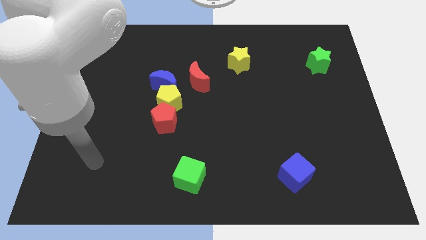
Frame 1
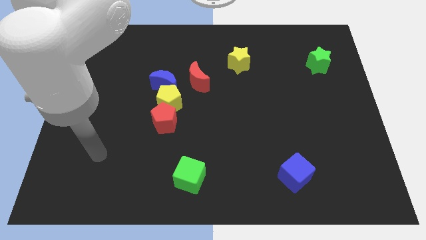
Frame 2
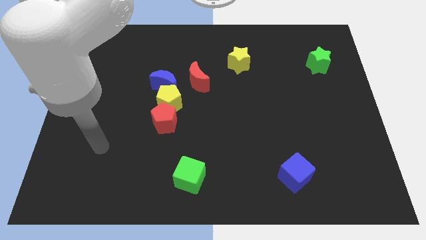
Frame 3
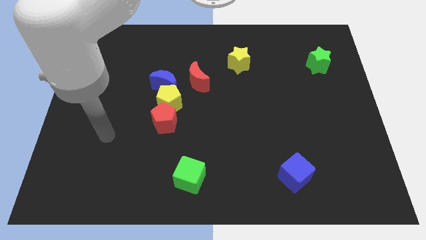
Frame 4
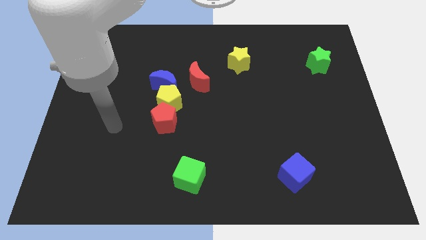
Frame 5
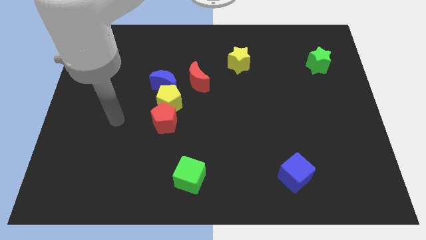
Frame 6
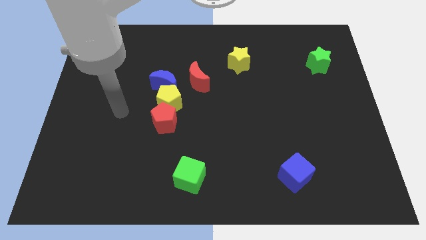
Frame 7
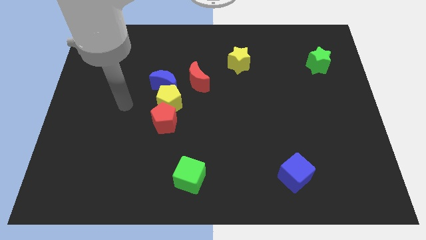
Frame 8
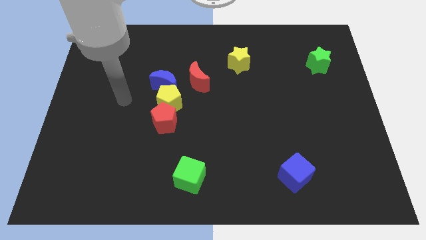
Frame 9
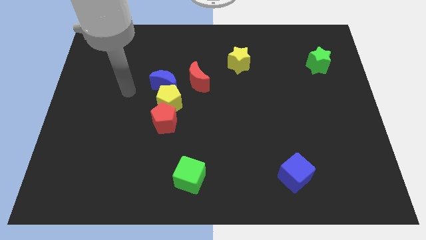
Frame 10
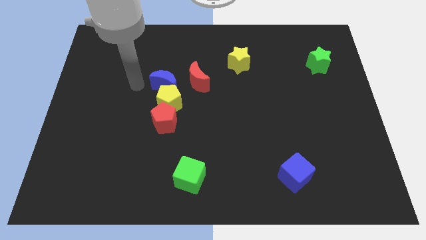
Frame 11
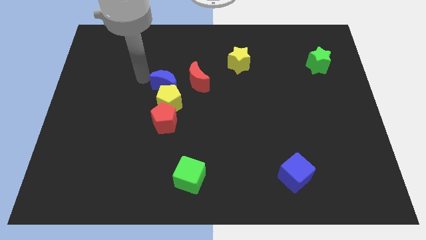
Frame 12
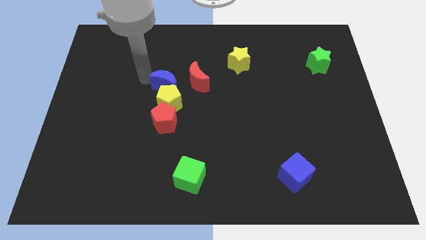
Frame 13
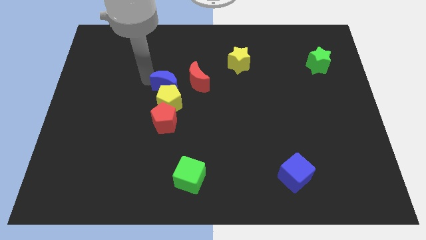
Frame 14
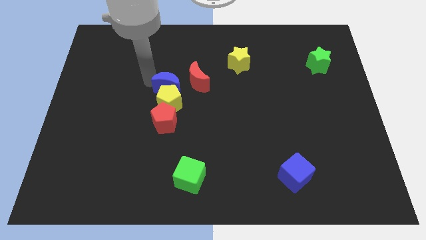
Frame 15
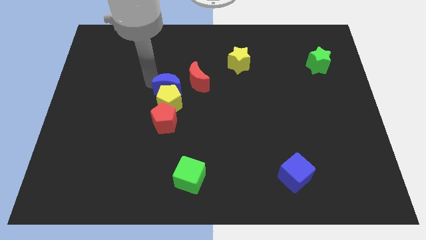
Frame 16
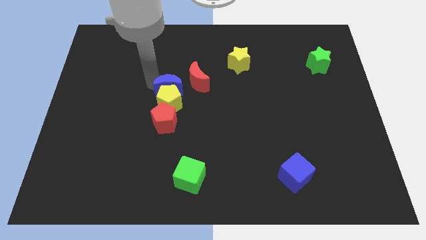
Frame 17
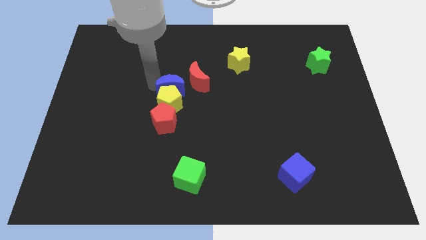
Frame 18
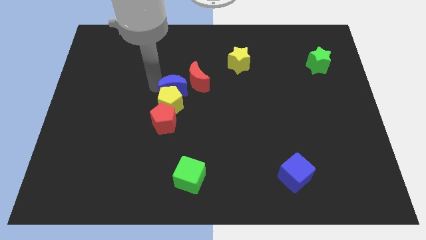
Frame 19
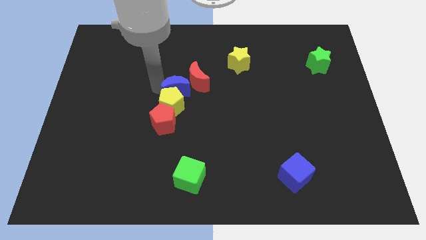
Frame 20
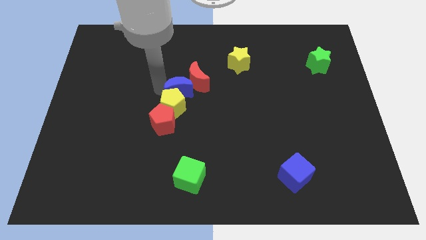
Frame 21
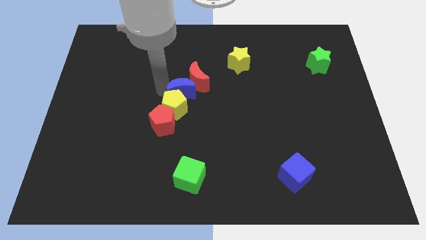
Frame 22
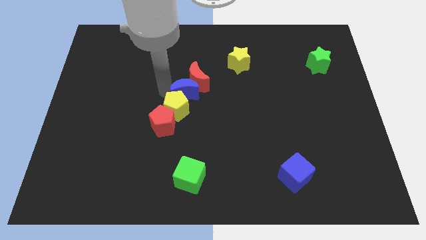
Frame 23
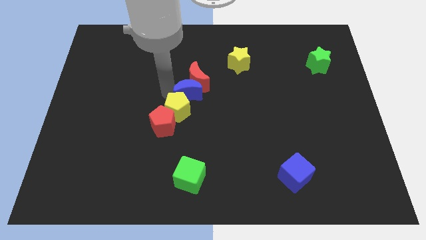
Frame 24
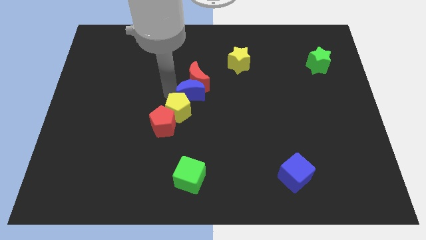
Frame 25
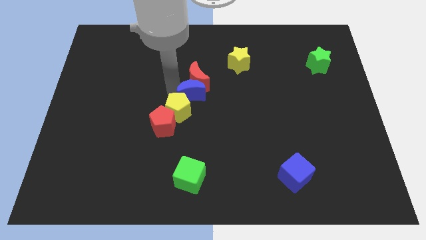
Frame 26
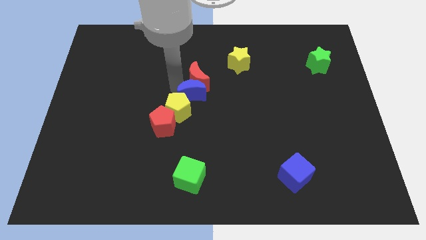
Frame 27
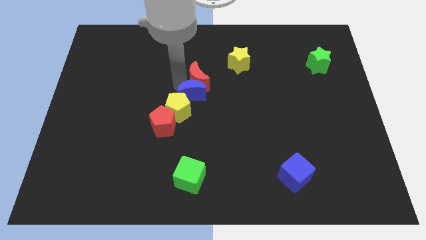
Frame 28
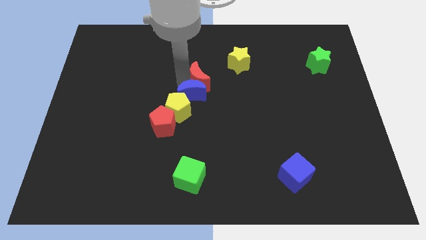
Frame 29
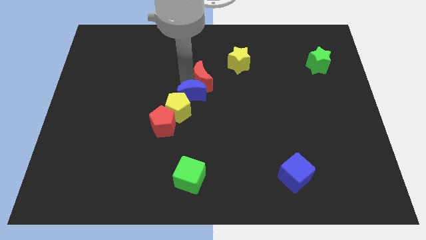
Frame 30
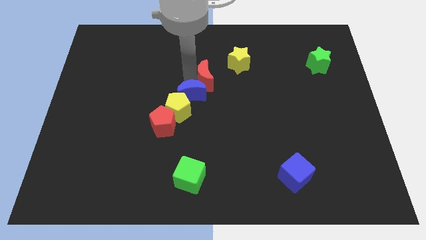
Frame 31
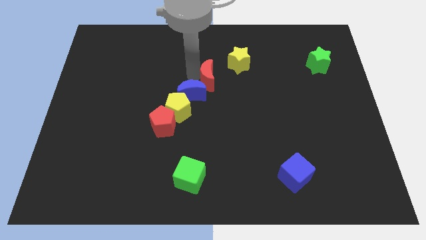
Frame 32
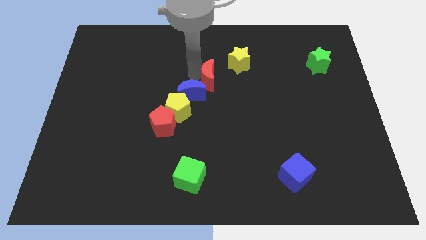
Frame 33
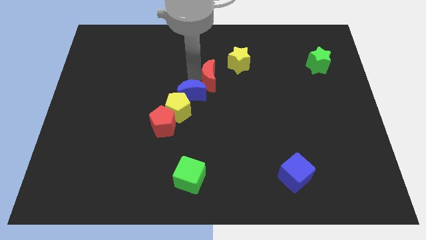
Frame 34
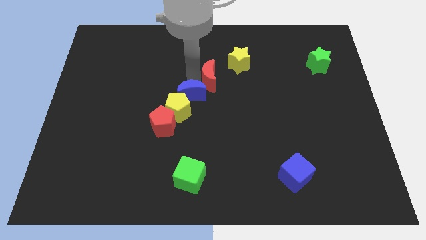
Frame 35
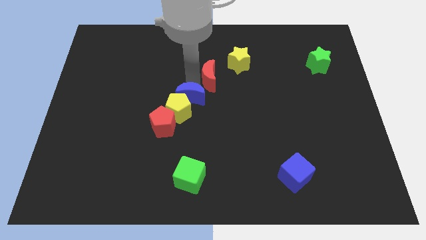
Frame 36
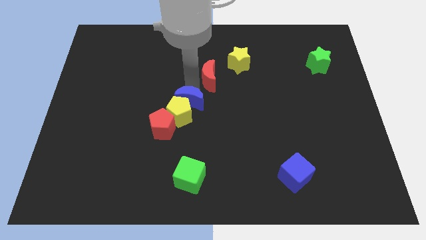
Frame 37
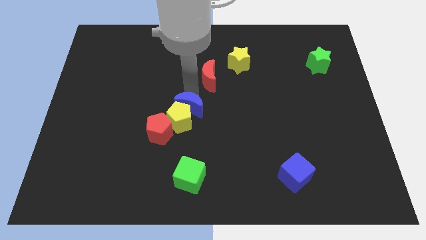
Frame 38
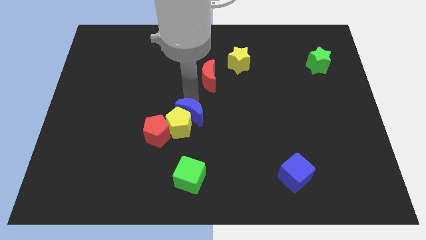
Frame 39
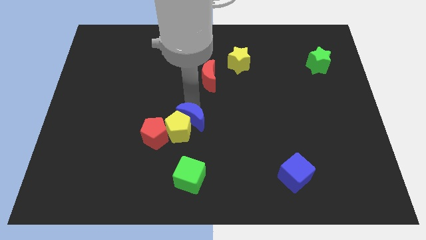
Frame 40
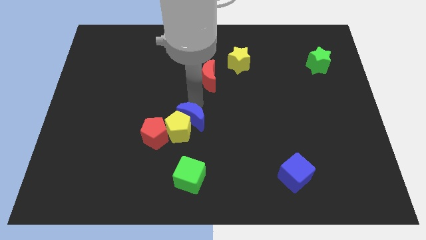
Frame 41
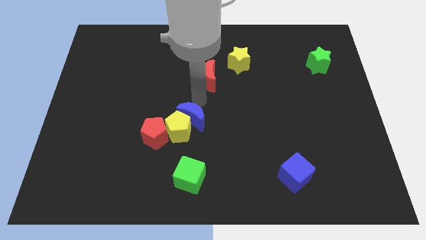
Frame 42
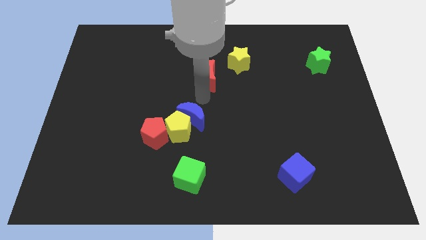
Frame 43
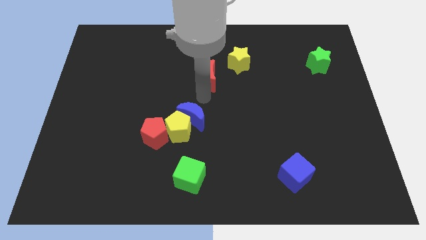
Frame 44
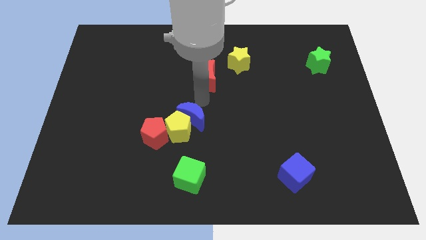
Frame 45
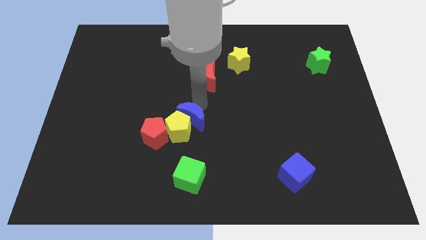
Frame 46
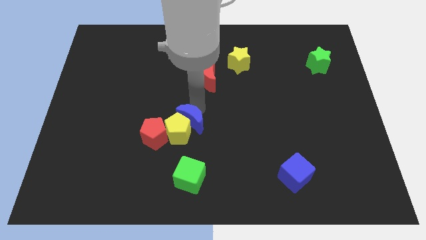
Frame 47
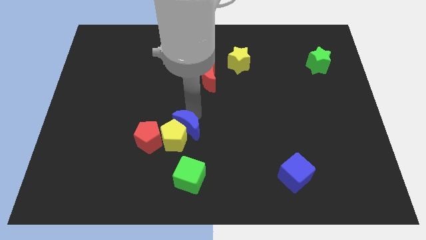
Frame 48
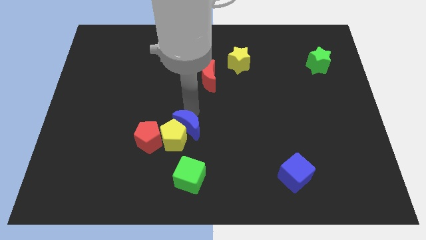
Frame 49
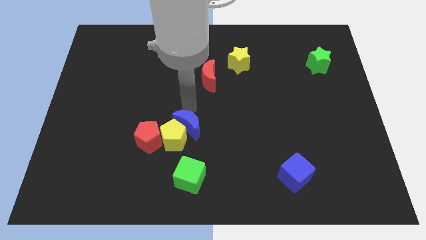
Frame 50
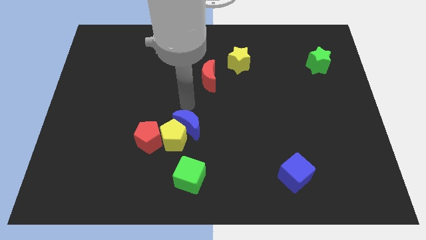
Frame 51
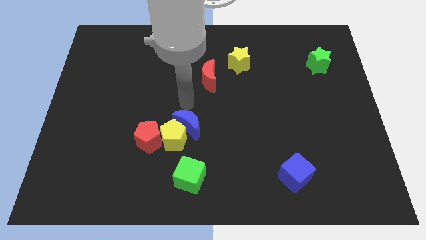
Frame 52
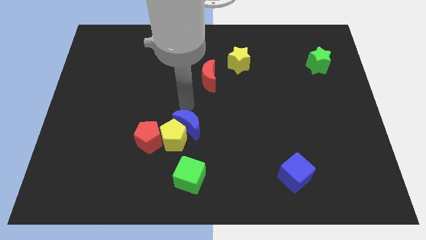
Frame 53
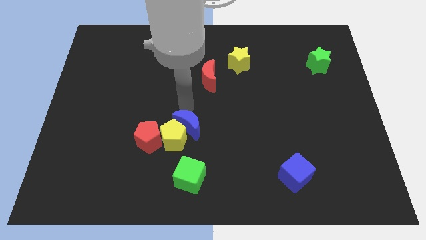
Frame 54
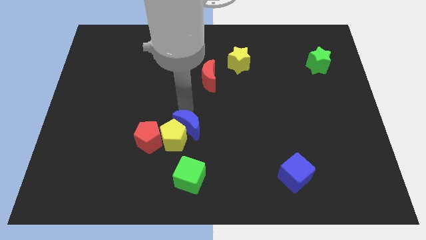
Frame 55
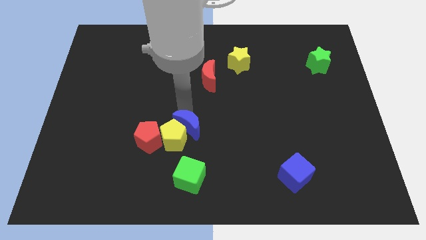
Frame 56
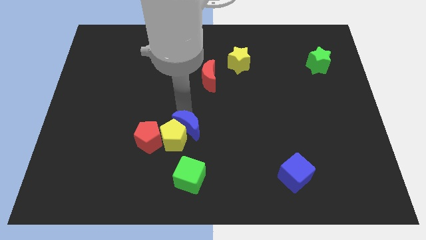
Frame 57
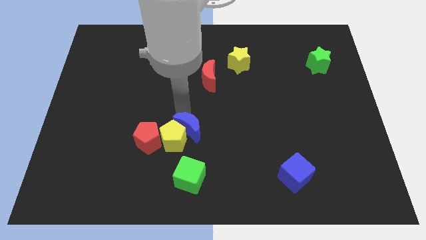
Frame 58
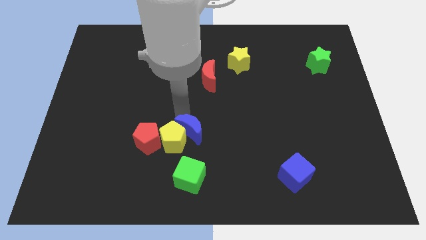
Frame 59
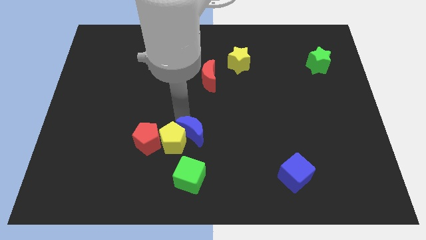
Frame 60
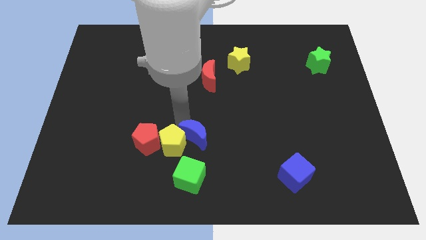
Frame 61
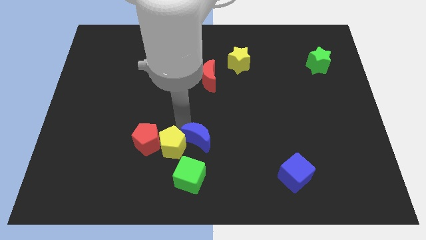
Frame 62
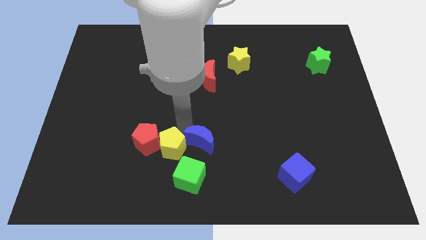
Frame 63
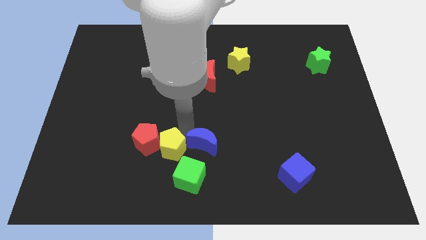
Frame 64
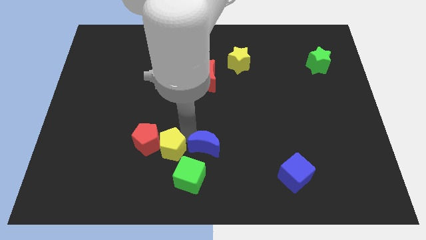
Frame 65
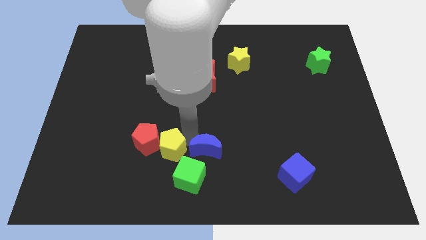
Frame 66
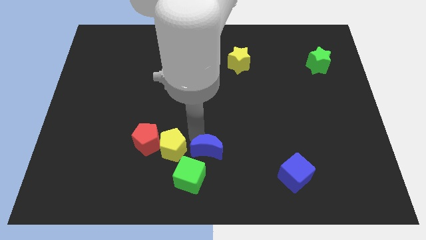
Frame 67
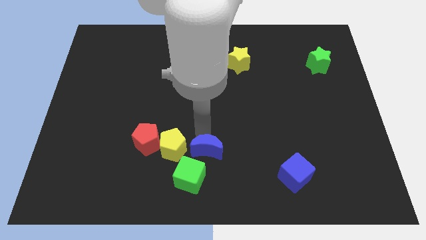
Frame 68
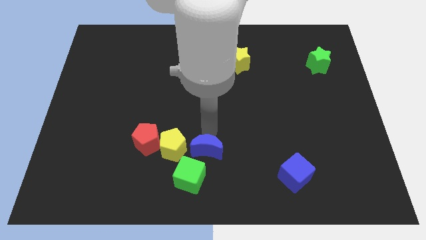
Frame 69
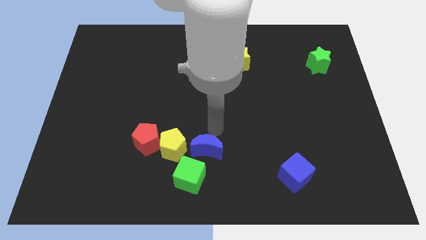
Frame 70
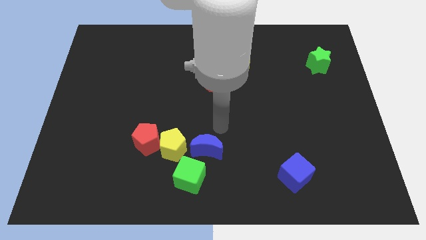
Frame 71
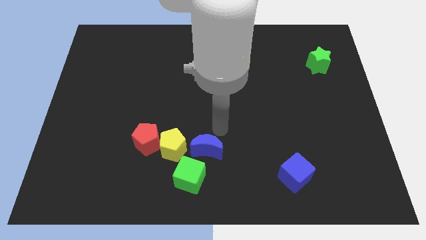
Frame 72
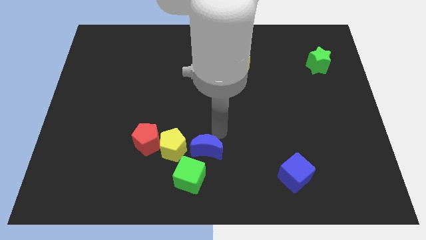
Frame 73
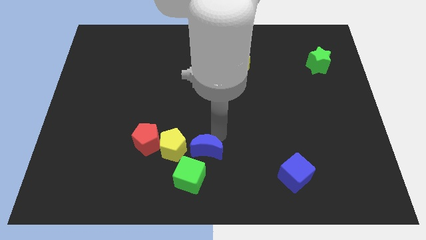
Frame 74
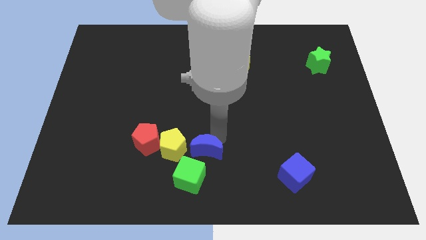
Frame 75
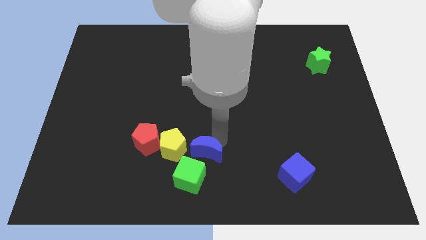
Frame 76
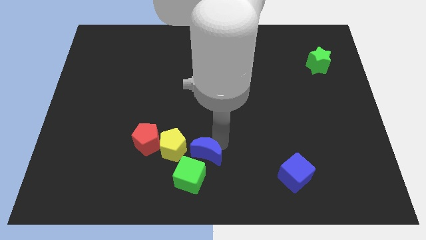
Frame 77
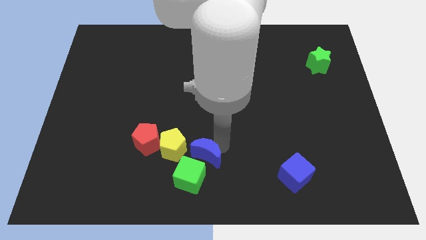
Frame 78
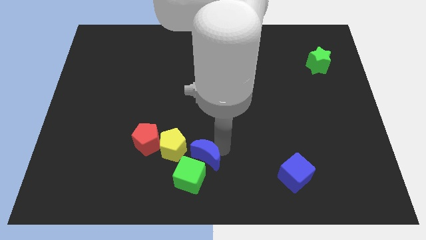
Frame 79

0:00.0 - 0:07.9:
slide the blue moon next to the green cube
